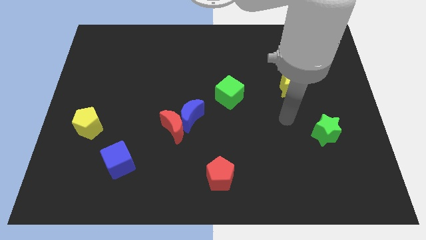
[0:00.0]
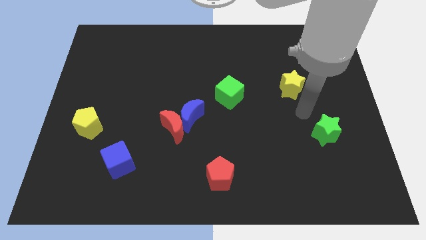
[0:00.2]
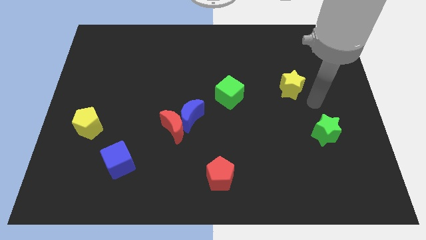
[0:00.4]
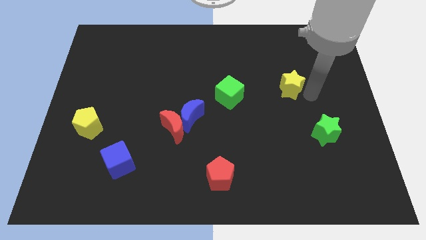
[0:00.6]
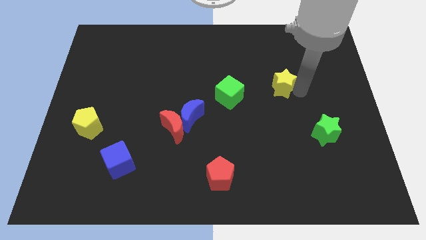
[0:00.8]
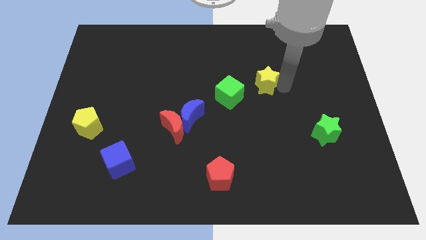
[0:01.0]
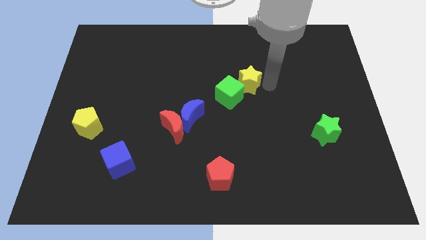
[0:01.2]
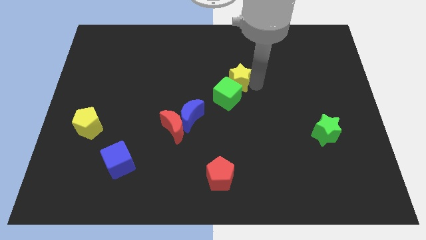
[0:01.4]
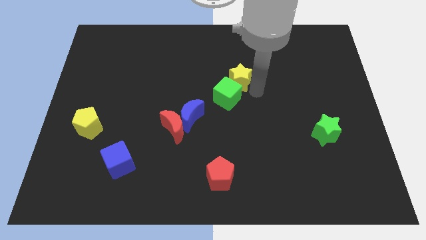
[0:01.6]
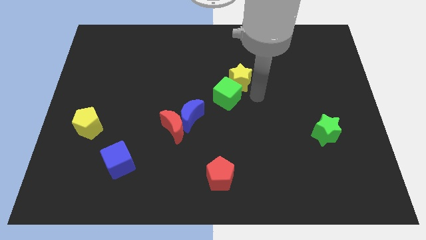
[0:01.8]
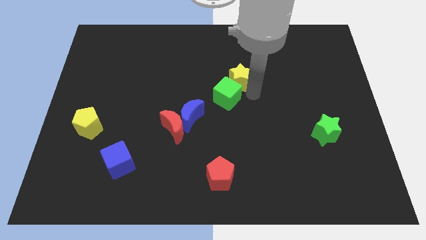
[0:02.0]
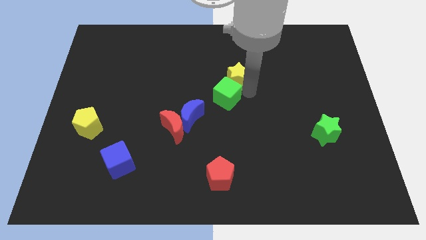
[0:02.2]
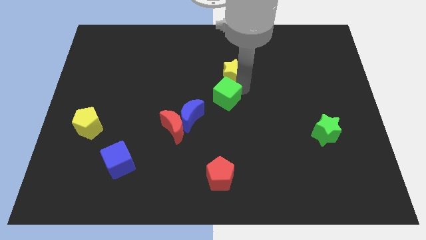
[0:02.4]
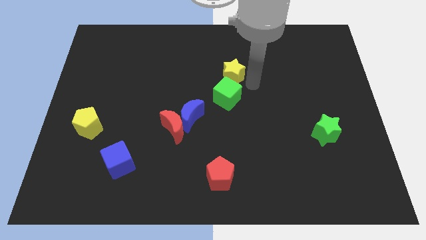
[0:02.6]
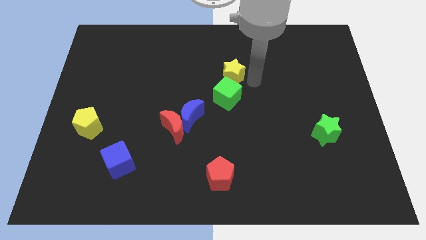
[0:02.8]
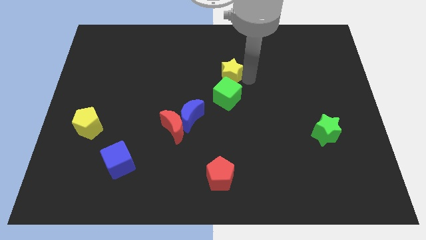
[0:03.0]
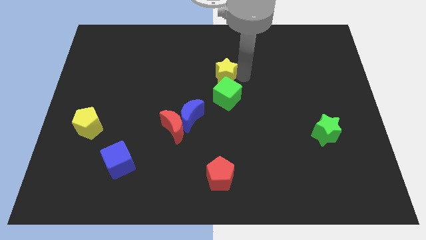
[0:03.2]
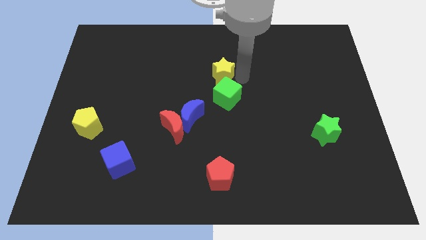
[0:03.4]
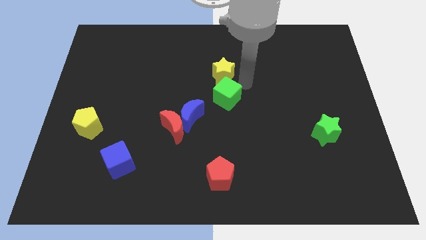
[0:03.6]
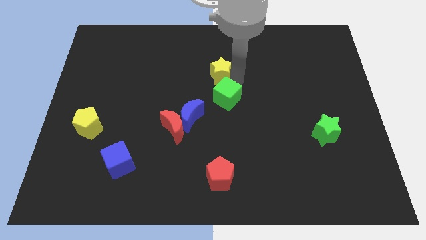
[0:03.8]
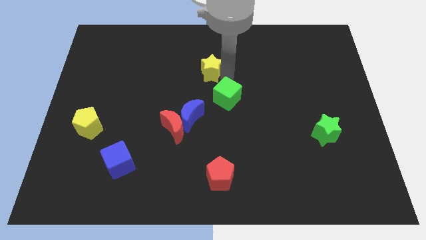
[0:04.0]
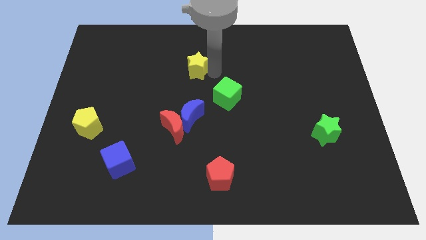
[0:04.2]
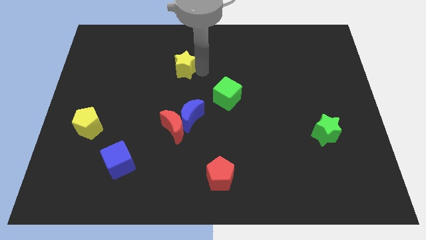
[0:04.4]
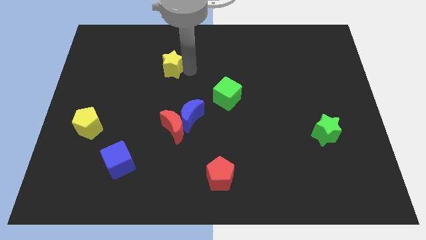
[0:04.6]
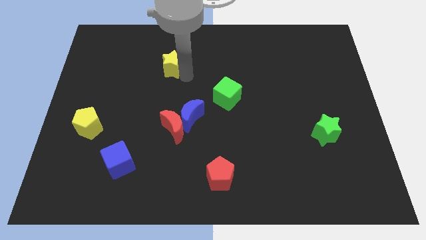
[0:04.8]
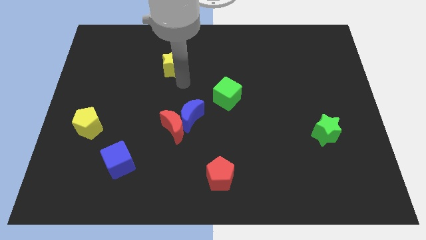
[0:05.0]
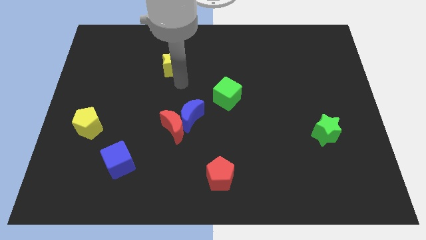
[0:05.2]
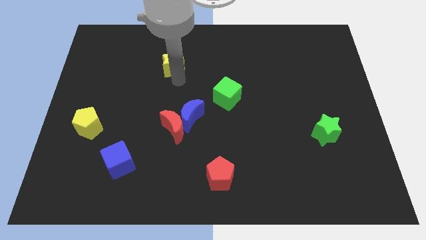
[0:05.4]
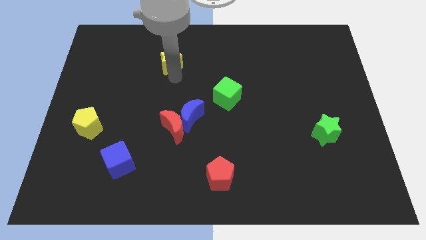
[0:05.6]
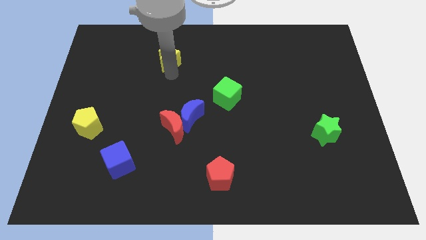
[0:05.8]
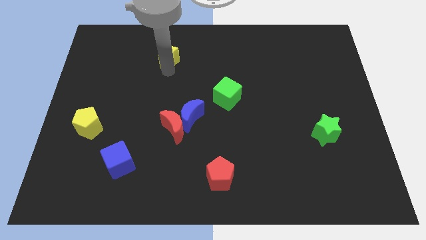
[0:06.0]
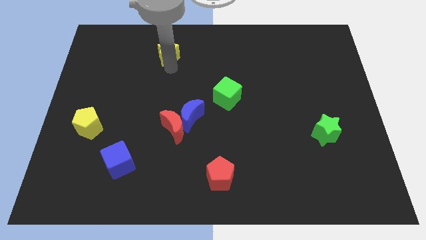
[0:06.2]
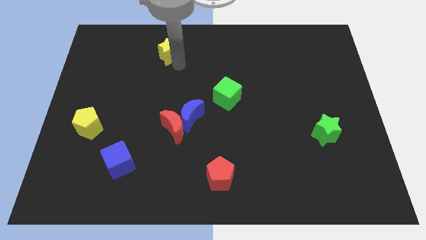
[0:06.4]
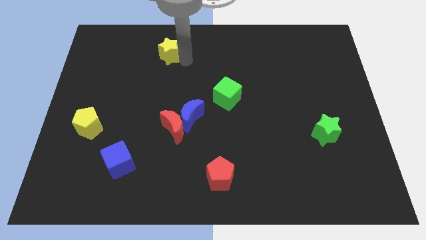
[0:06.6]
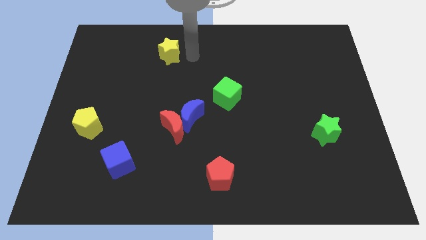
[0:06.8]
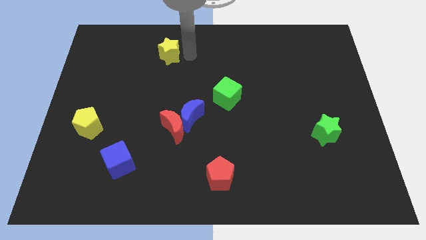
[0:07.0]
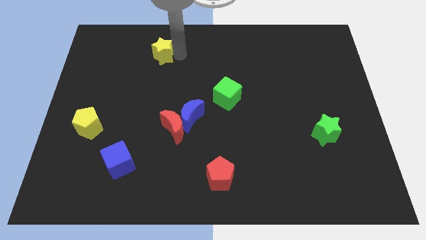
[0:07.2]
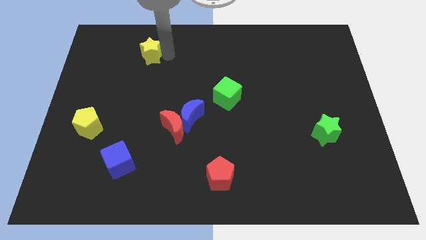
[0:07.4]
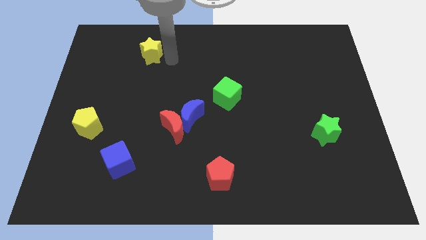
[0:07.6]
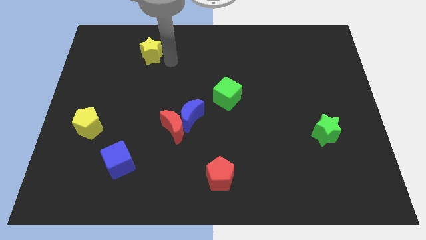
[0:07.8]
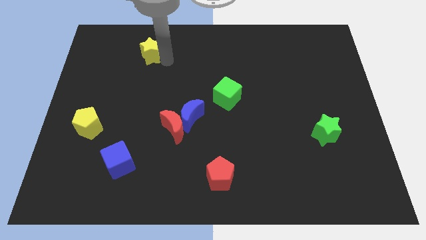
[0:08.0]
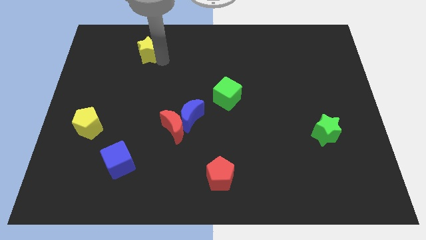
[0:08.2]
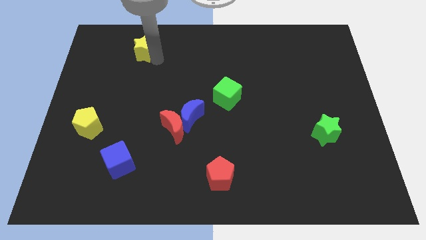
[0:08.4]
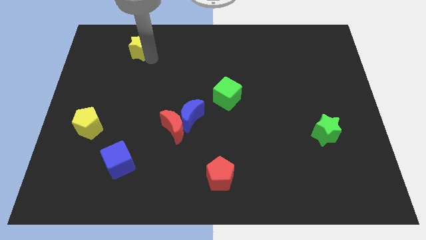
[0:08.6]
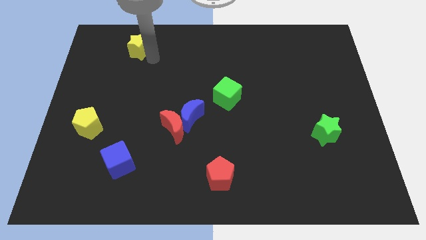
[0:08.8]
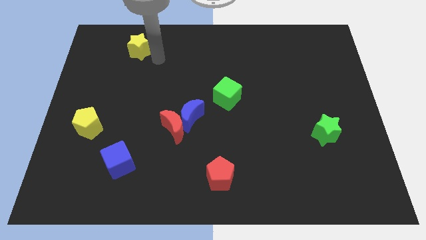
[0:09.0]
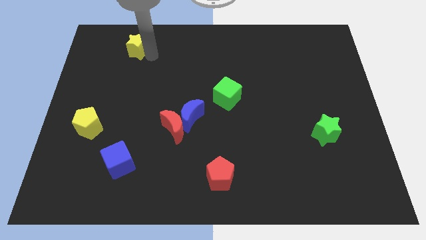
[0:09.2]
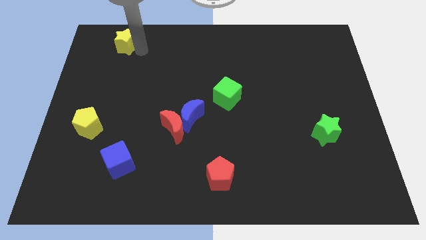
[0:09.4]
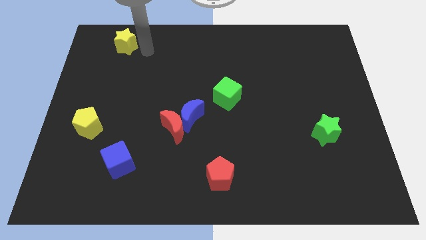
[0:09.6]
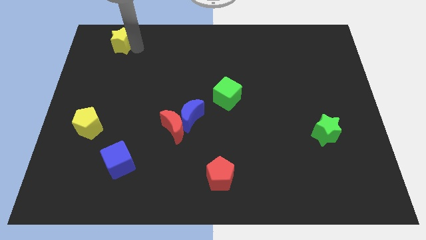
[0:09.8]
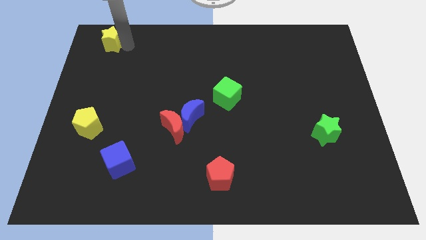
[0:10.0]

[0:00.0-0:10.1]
put the yellow star to the top left corner

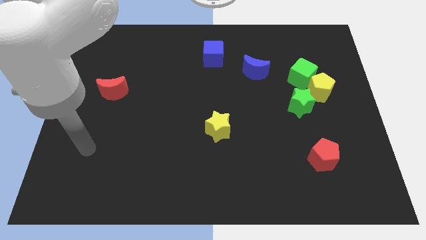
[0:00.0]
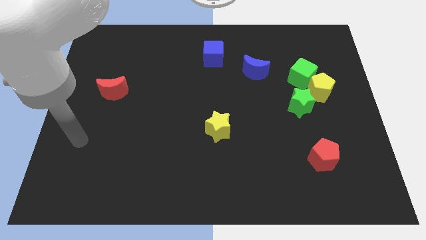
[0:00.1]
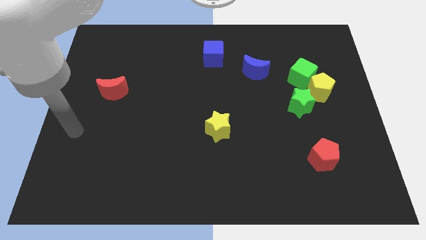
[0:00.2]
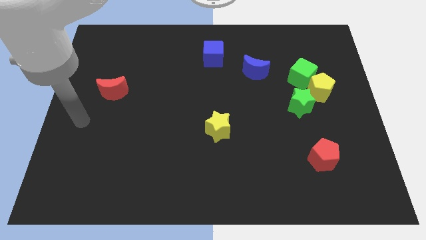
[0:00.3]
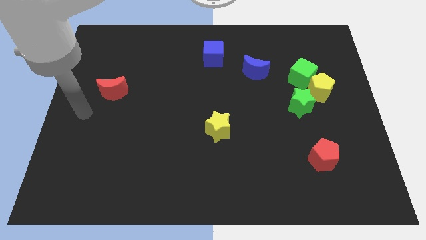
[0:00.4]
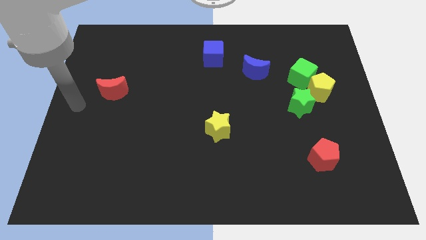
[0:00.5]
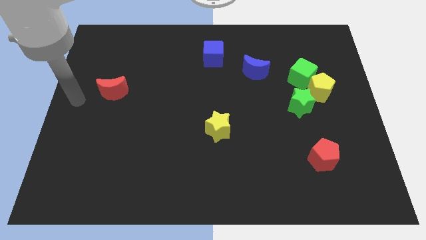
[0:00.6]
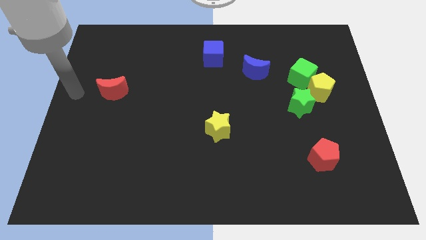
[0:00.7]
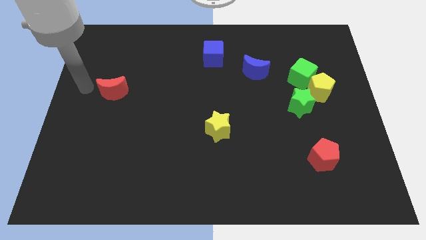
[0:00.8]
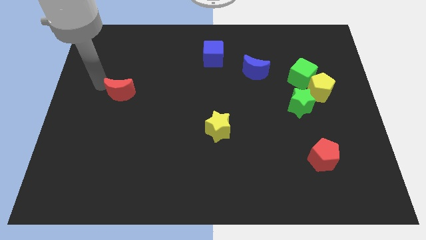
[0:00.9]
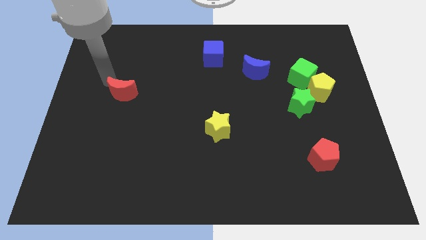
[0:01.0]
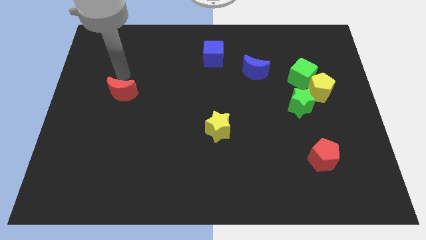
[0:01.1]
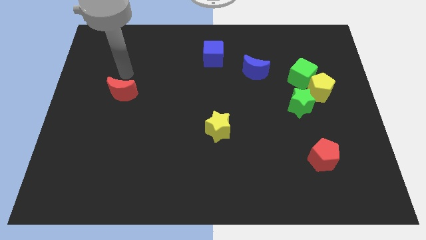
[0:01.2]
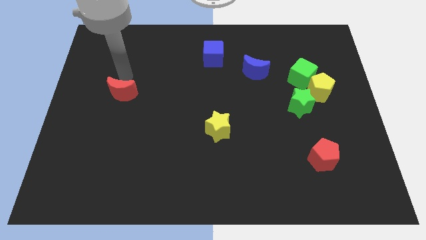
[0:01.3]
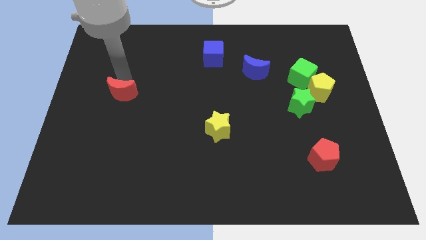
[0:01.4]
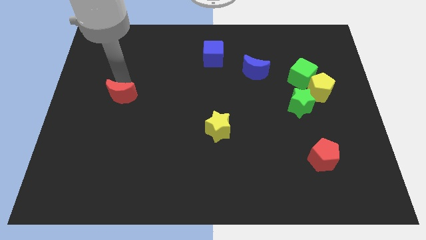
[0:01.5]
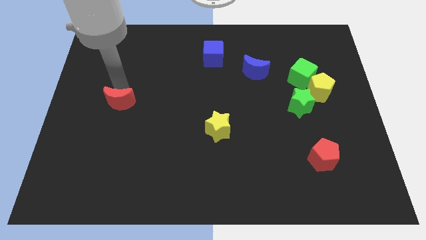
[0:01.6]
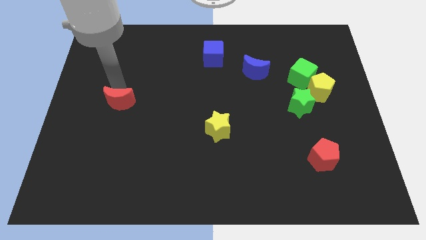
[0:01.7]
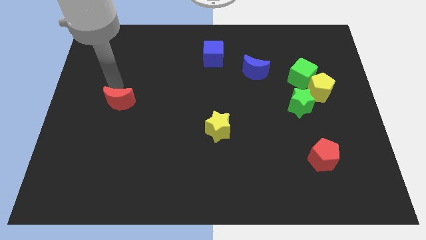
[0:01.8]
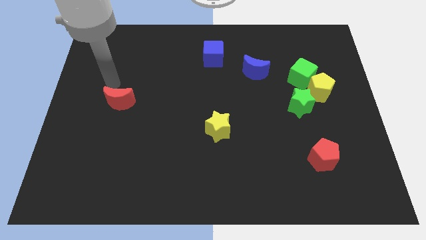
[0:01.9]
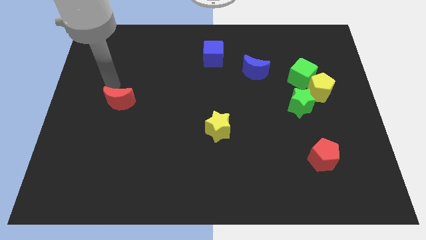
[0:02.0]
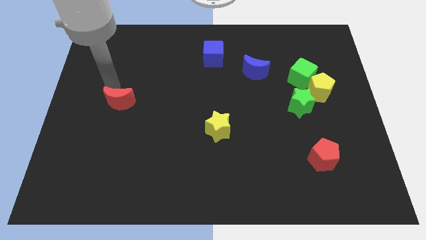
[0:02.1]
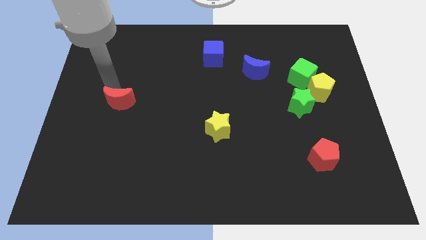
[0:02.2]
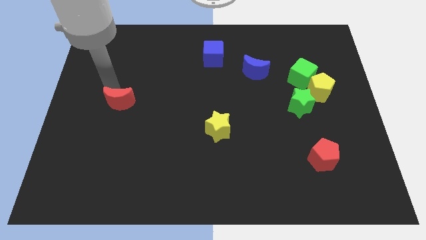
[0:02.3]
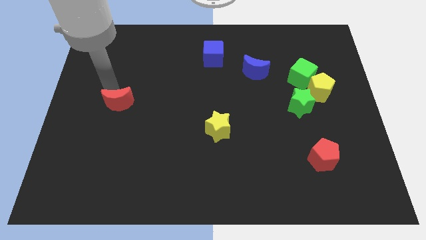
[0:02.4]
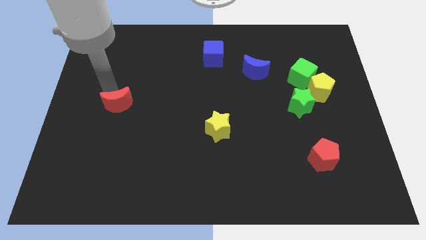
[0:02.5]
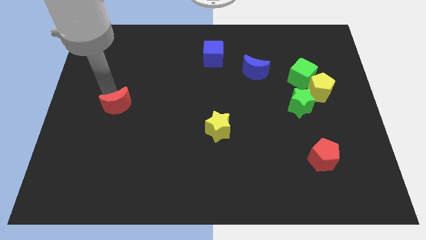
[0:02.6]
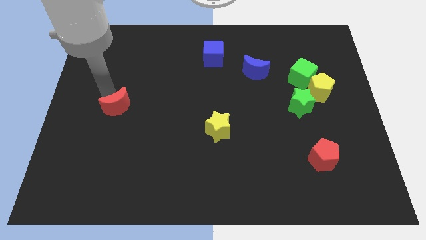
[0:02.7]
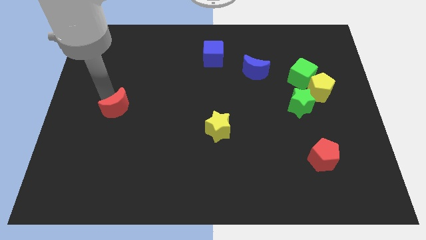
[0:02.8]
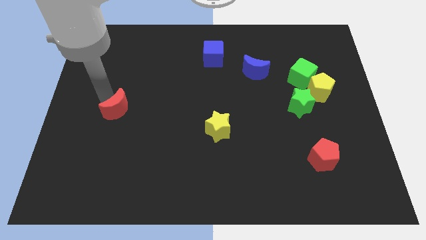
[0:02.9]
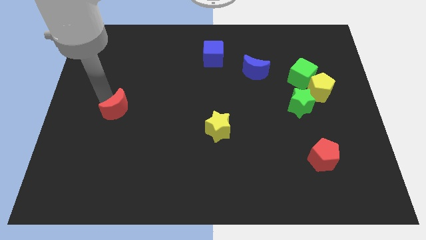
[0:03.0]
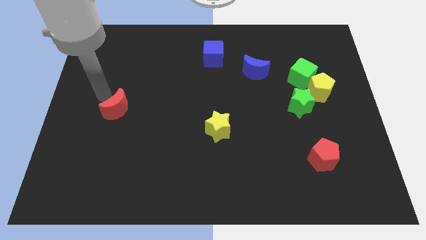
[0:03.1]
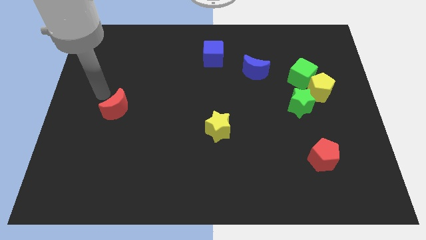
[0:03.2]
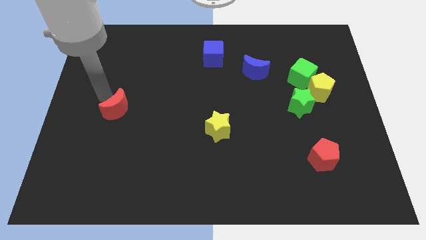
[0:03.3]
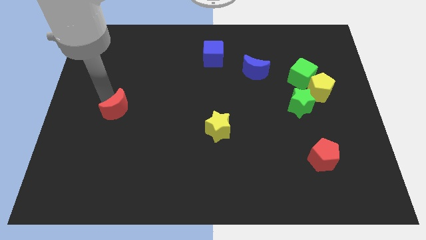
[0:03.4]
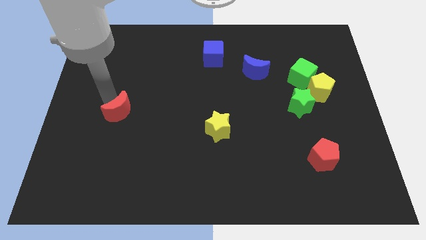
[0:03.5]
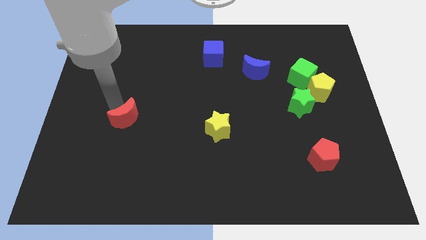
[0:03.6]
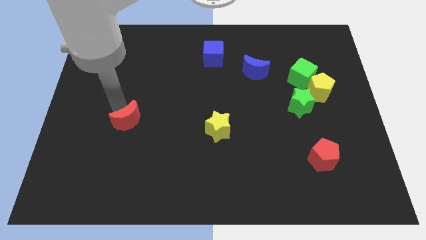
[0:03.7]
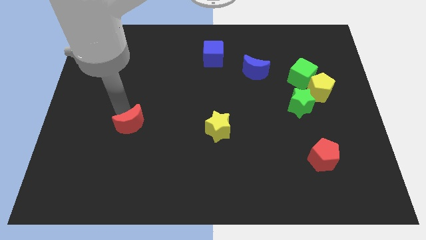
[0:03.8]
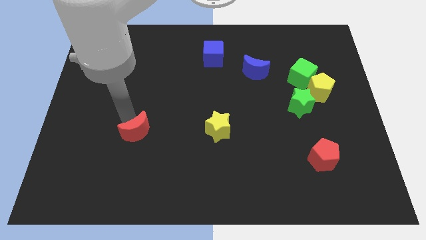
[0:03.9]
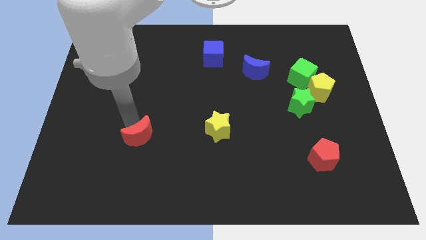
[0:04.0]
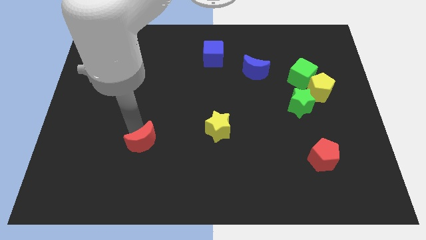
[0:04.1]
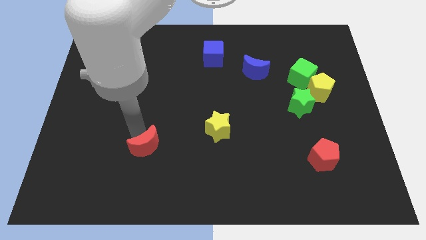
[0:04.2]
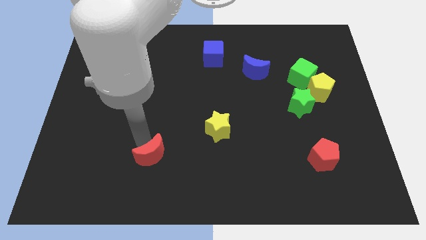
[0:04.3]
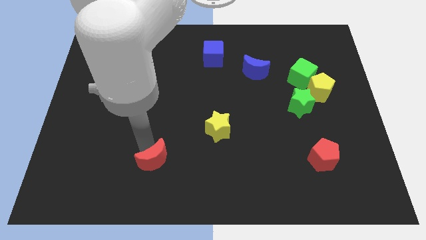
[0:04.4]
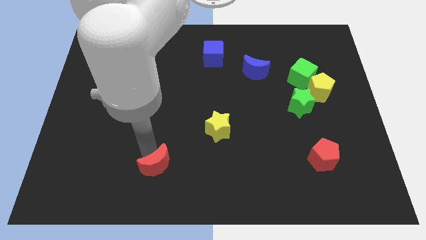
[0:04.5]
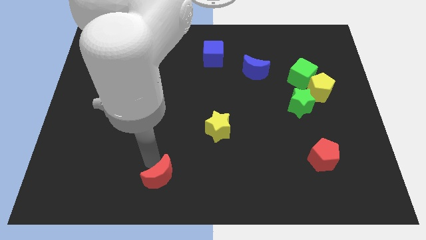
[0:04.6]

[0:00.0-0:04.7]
put the red moon to the bottom
